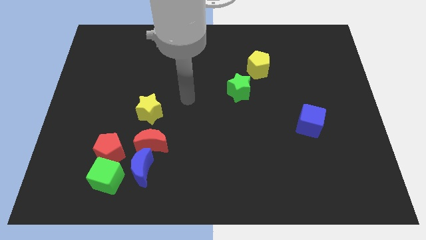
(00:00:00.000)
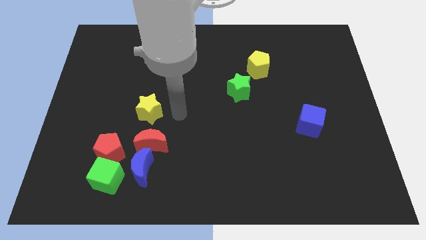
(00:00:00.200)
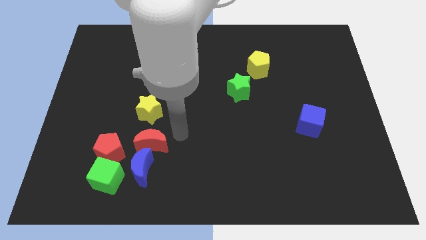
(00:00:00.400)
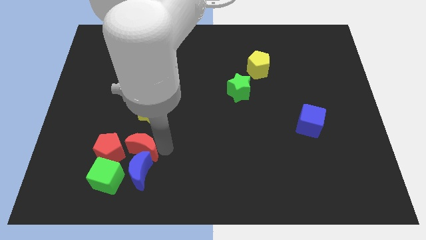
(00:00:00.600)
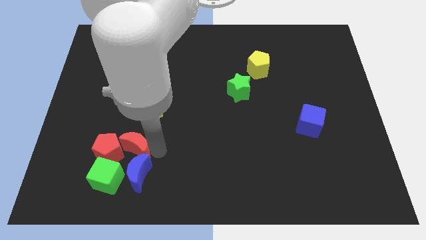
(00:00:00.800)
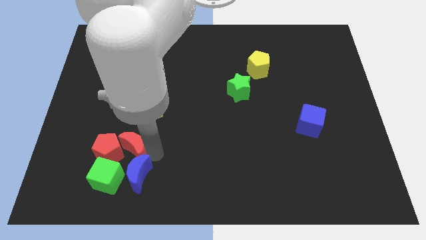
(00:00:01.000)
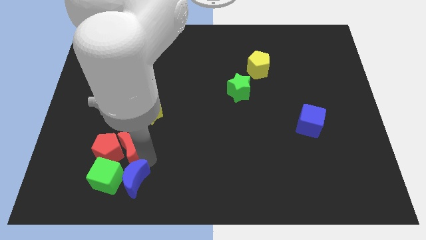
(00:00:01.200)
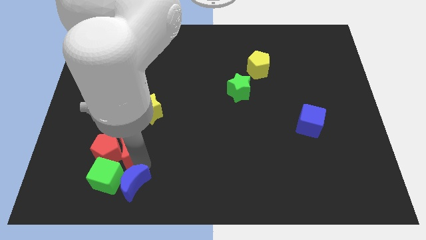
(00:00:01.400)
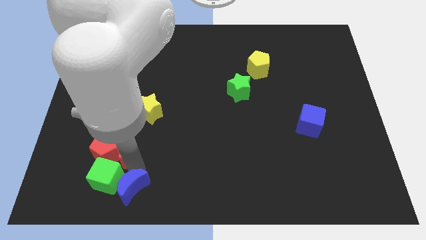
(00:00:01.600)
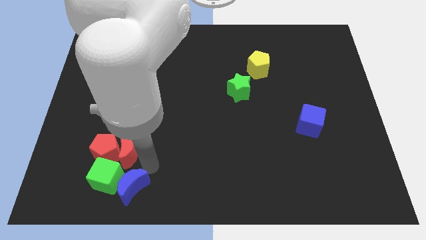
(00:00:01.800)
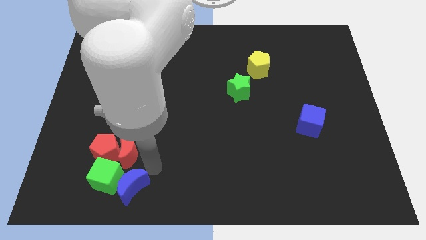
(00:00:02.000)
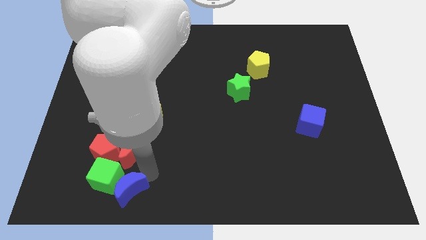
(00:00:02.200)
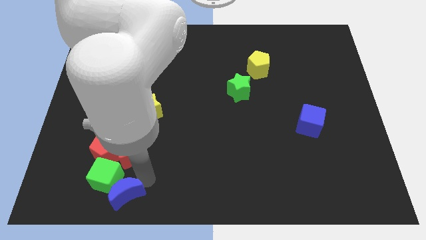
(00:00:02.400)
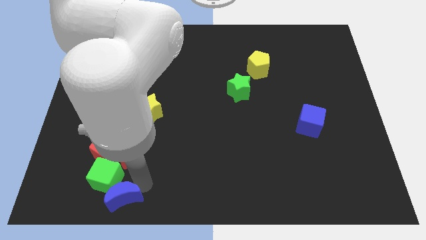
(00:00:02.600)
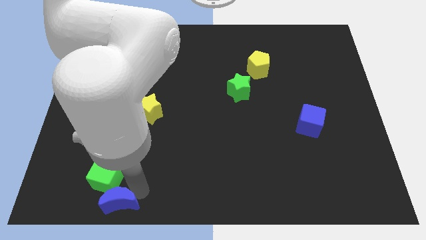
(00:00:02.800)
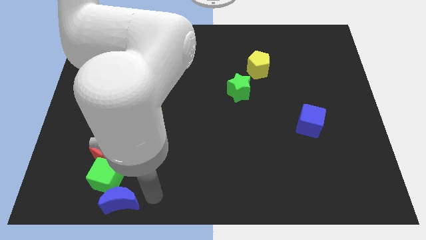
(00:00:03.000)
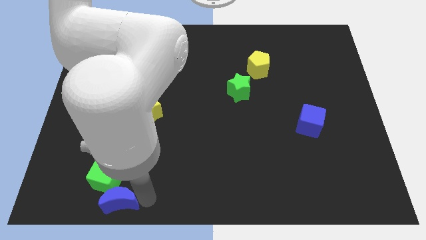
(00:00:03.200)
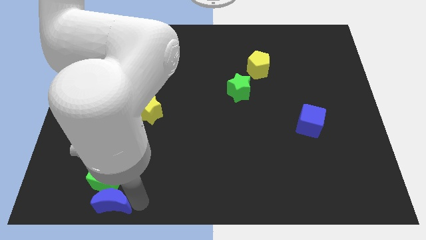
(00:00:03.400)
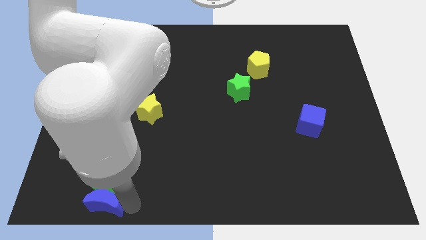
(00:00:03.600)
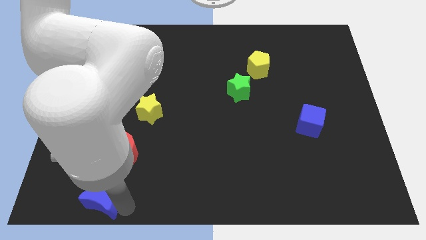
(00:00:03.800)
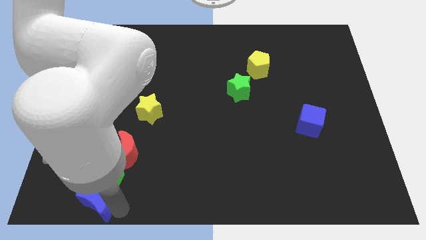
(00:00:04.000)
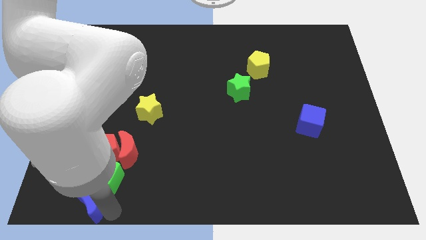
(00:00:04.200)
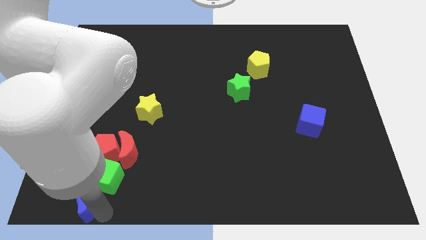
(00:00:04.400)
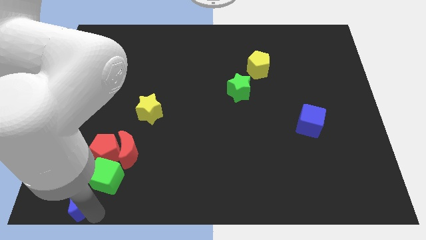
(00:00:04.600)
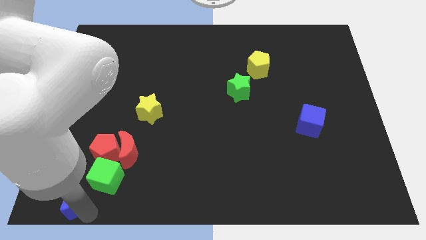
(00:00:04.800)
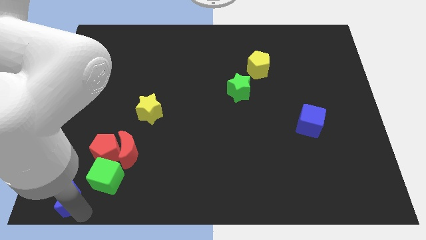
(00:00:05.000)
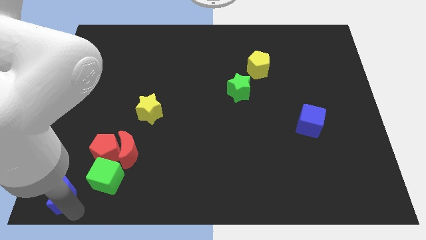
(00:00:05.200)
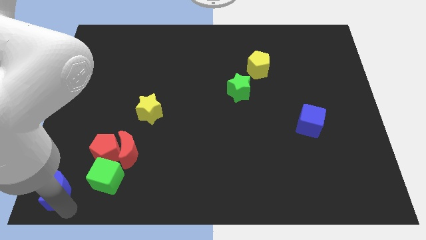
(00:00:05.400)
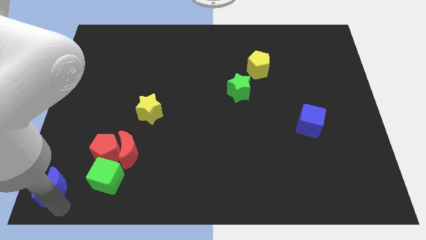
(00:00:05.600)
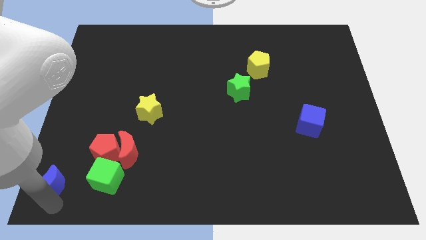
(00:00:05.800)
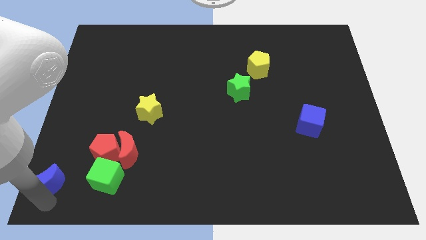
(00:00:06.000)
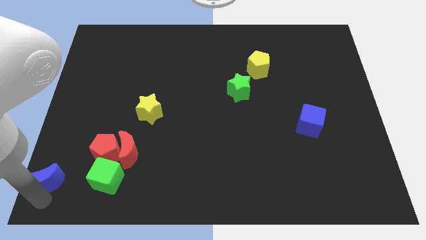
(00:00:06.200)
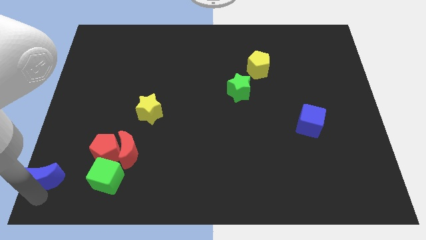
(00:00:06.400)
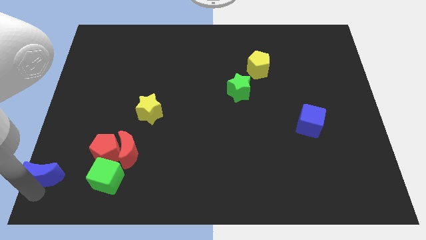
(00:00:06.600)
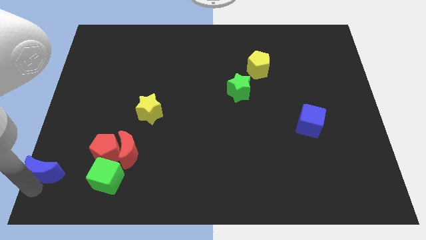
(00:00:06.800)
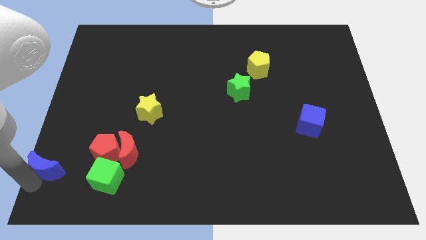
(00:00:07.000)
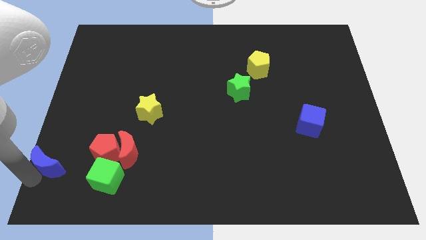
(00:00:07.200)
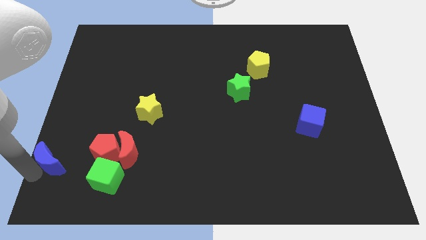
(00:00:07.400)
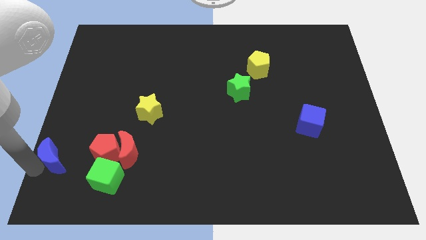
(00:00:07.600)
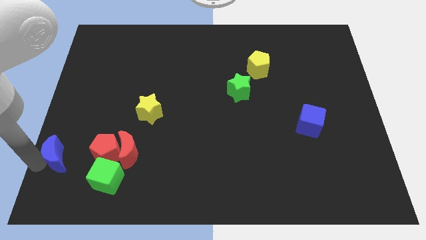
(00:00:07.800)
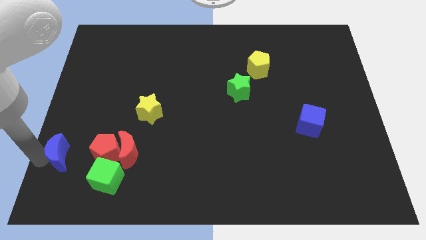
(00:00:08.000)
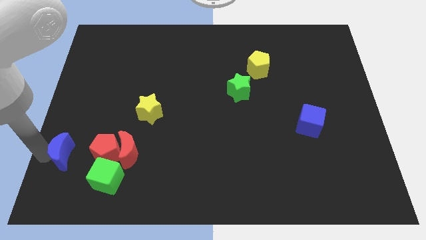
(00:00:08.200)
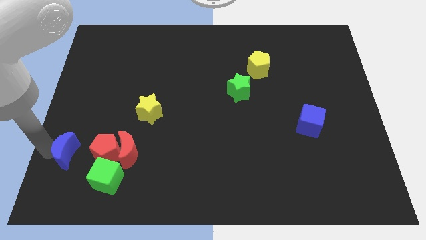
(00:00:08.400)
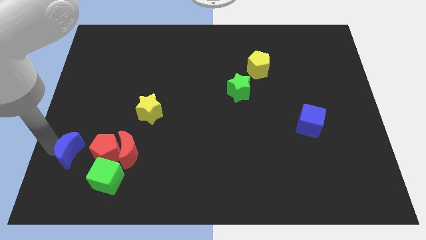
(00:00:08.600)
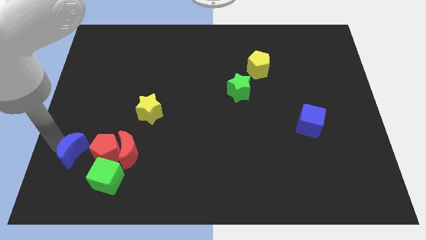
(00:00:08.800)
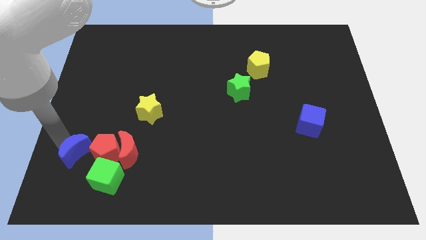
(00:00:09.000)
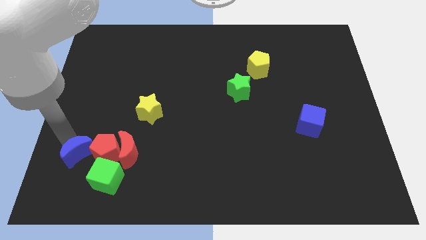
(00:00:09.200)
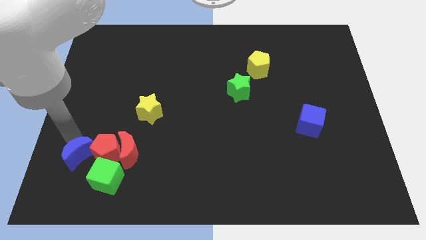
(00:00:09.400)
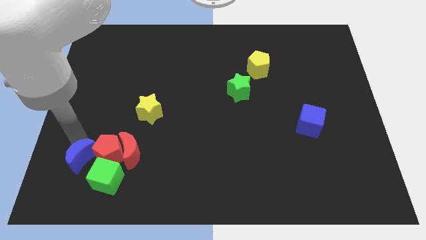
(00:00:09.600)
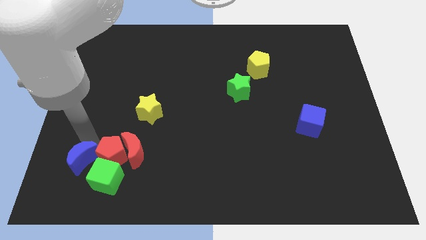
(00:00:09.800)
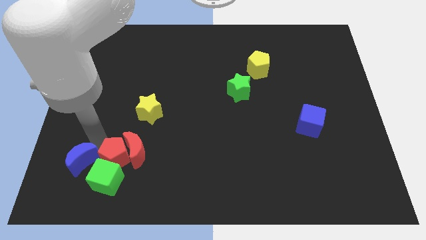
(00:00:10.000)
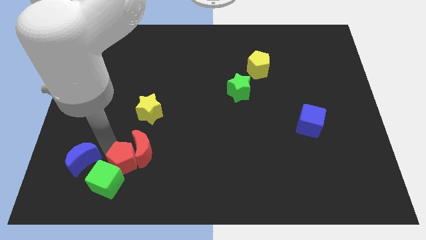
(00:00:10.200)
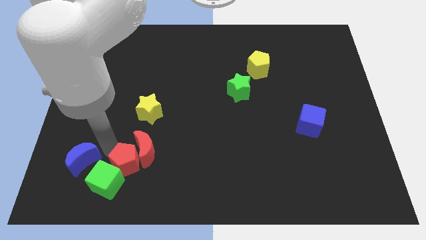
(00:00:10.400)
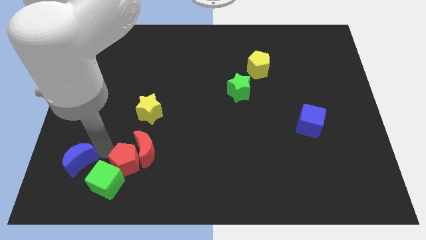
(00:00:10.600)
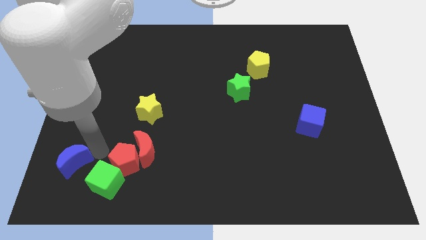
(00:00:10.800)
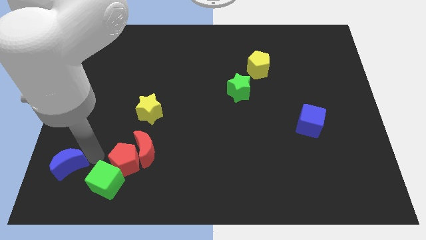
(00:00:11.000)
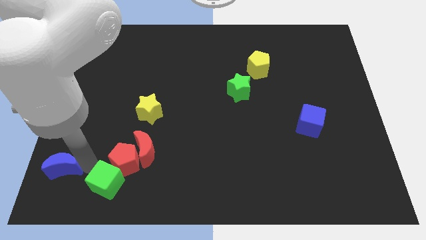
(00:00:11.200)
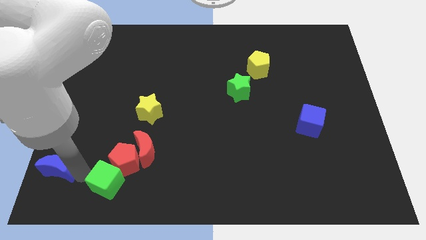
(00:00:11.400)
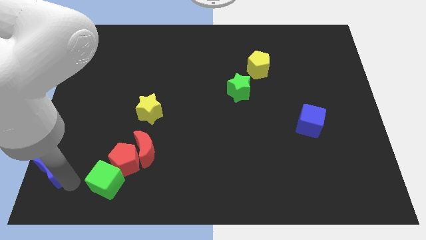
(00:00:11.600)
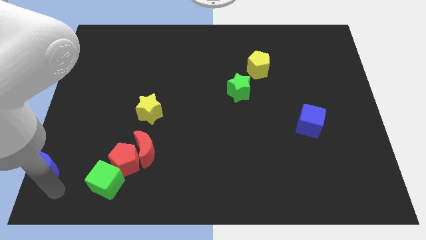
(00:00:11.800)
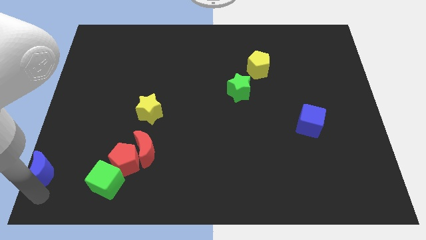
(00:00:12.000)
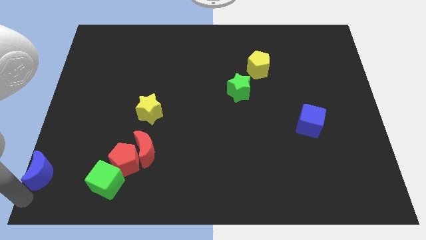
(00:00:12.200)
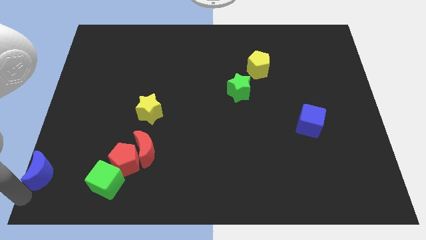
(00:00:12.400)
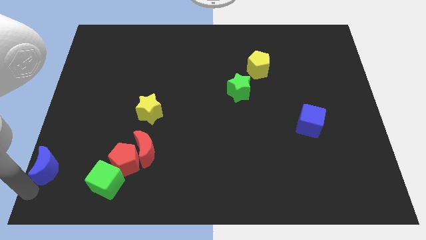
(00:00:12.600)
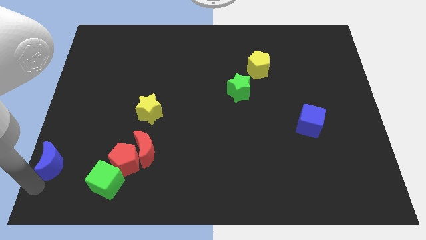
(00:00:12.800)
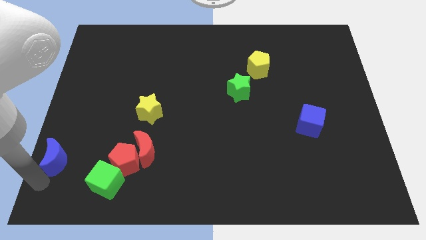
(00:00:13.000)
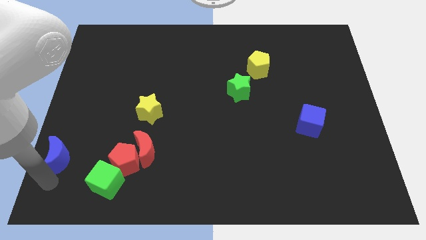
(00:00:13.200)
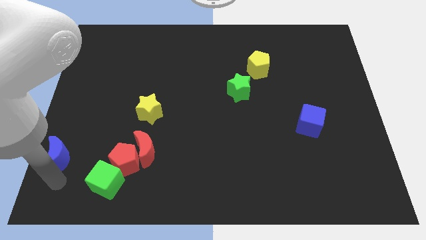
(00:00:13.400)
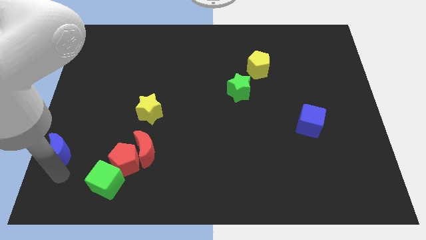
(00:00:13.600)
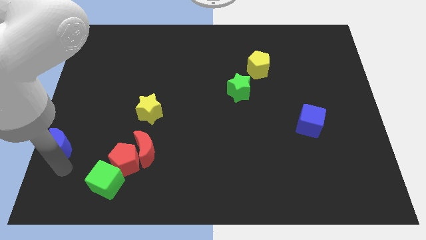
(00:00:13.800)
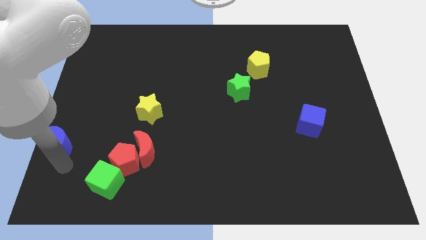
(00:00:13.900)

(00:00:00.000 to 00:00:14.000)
slide the blue moon to the left side of the board
